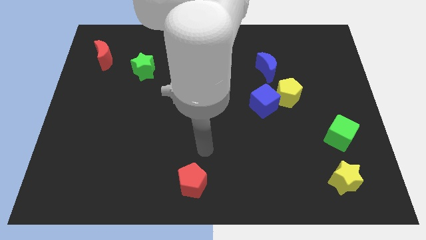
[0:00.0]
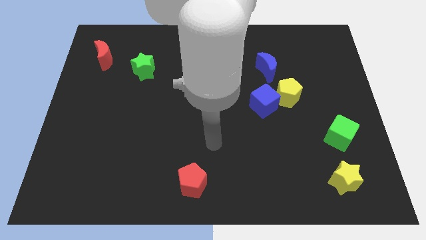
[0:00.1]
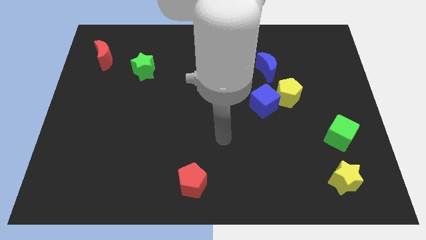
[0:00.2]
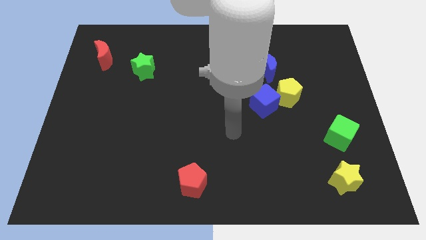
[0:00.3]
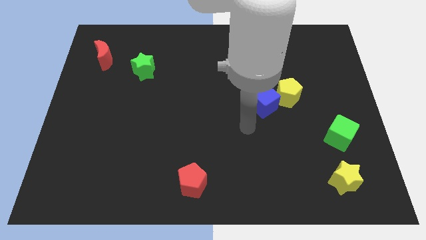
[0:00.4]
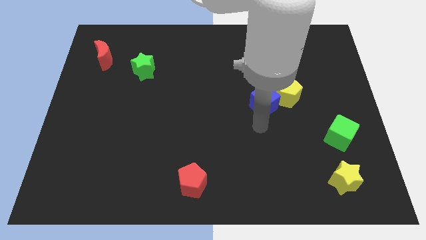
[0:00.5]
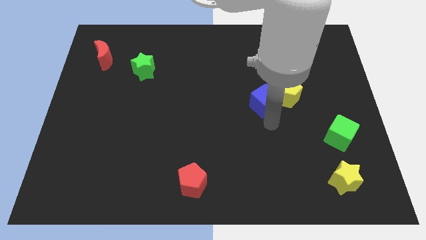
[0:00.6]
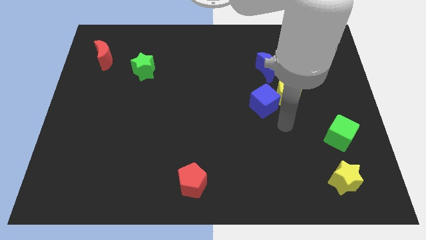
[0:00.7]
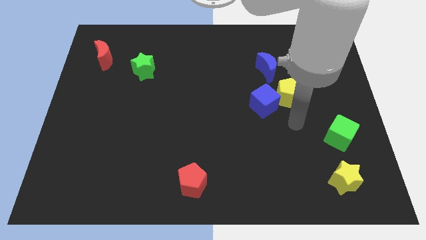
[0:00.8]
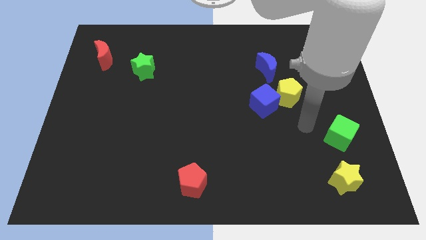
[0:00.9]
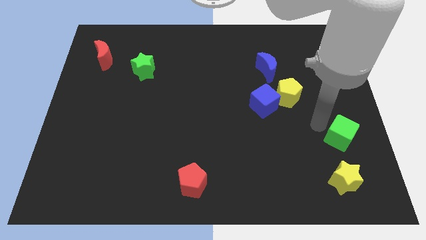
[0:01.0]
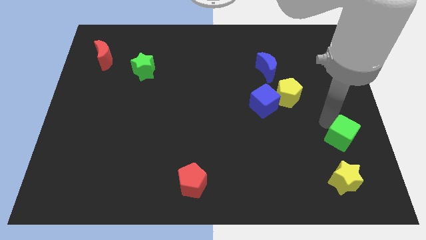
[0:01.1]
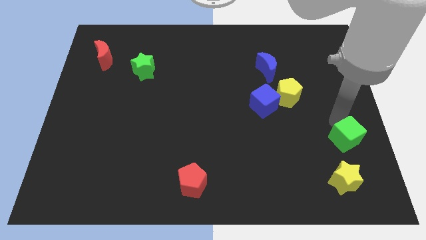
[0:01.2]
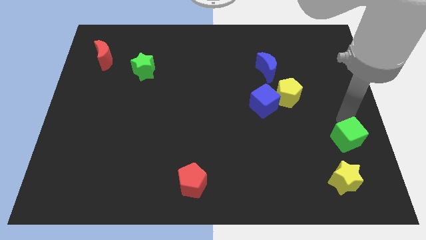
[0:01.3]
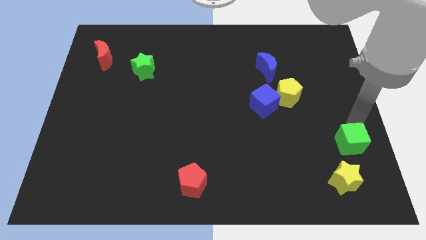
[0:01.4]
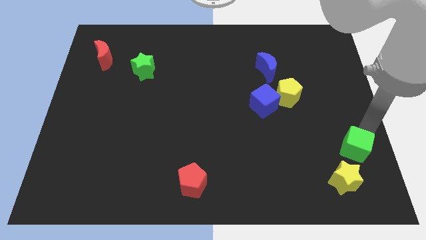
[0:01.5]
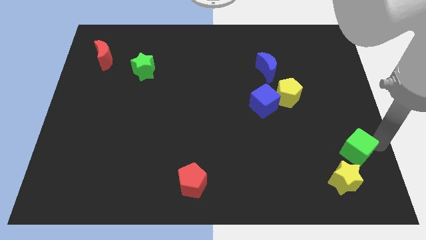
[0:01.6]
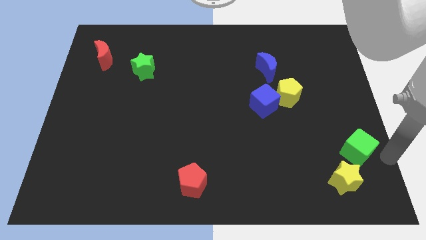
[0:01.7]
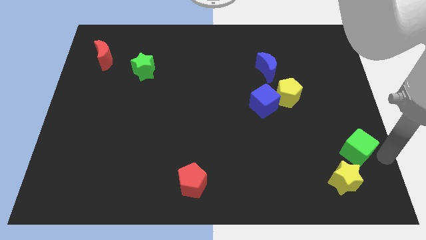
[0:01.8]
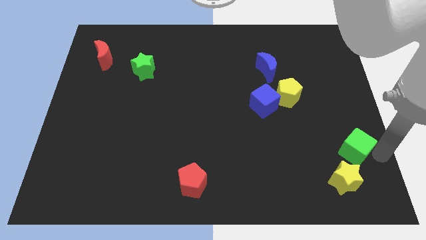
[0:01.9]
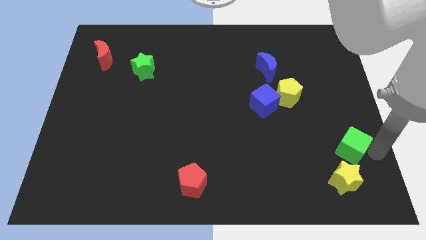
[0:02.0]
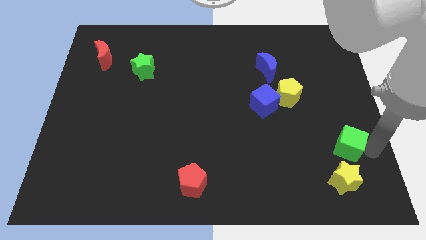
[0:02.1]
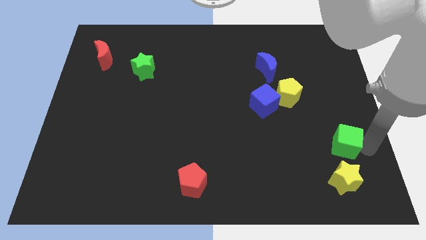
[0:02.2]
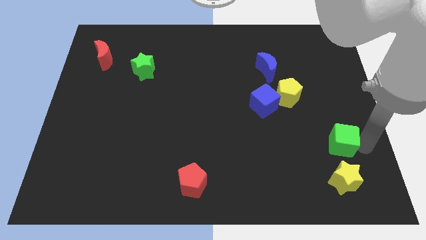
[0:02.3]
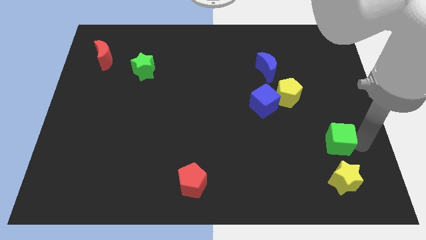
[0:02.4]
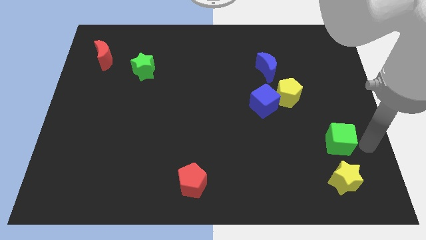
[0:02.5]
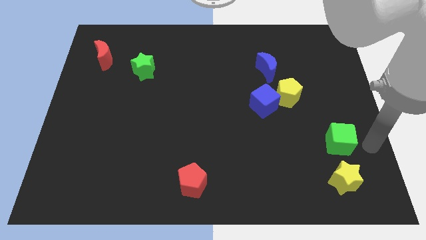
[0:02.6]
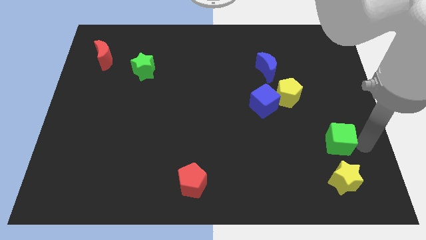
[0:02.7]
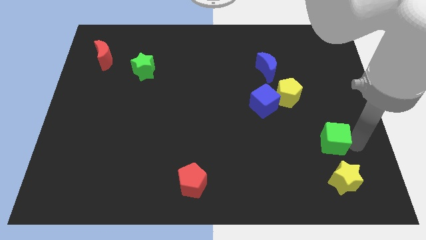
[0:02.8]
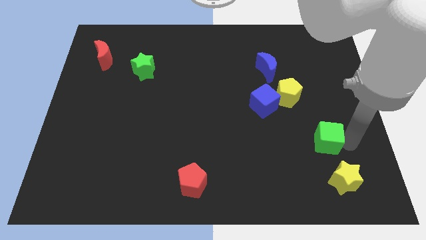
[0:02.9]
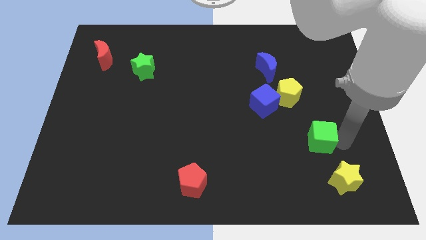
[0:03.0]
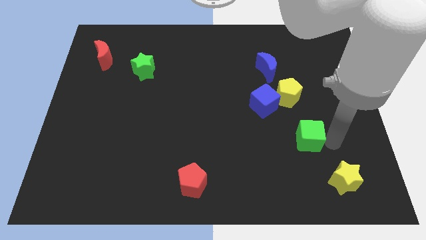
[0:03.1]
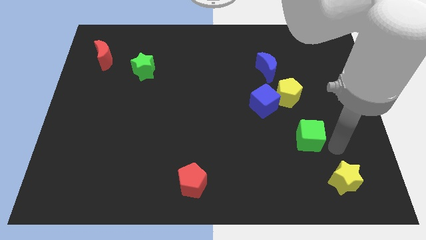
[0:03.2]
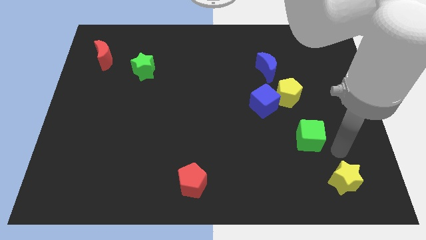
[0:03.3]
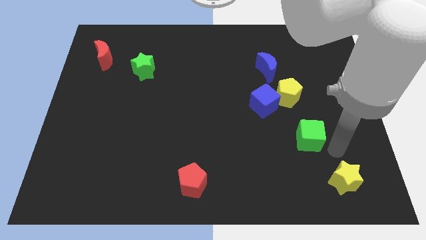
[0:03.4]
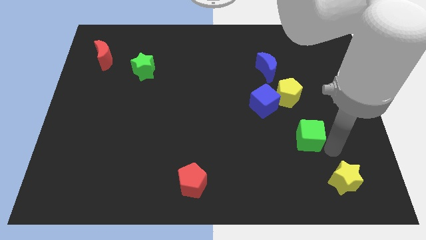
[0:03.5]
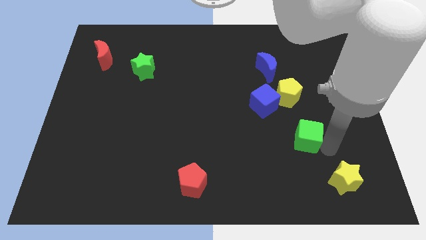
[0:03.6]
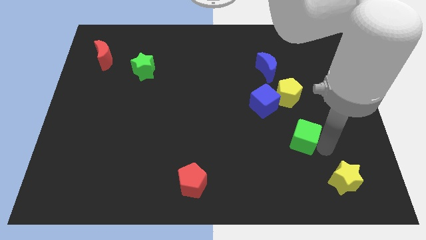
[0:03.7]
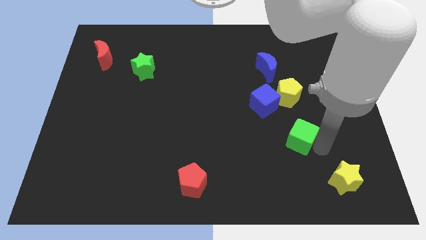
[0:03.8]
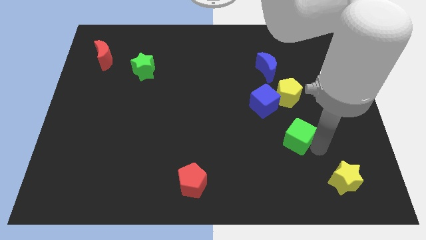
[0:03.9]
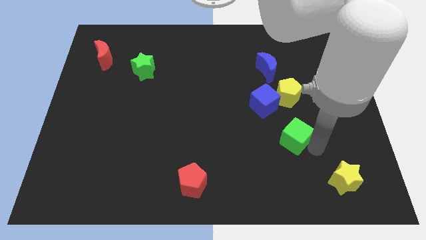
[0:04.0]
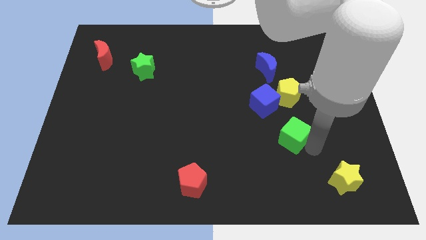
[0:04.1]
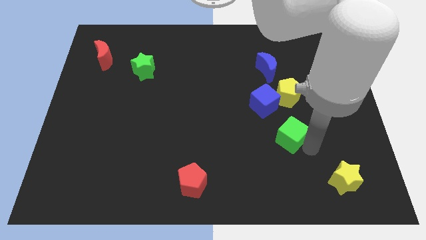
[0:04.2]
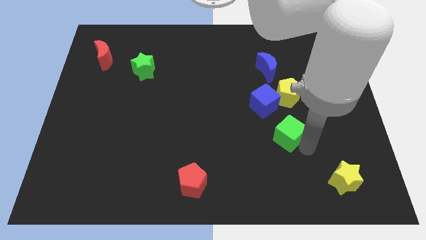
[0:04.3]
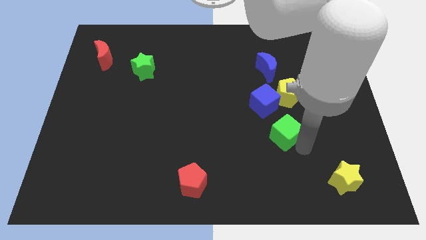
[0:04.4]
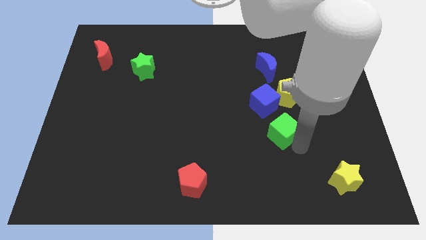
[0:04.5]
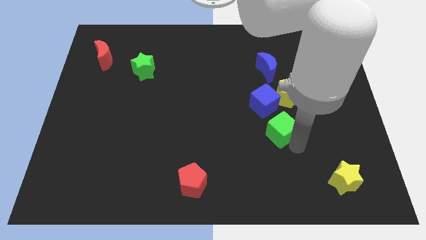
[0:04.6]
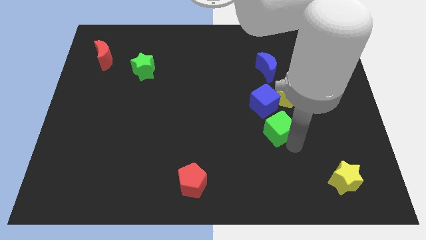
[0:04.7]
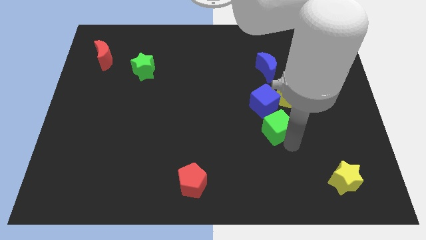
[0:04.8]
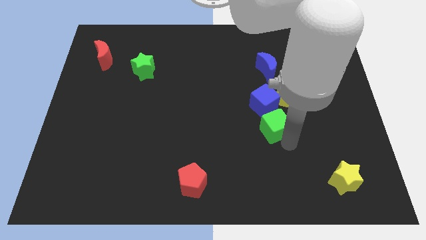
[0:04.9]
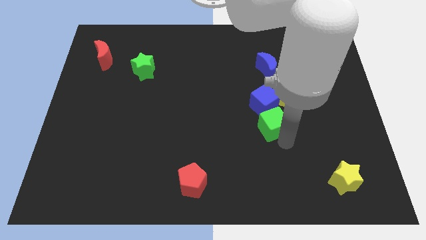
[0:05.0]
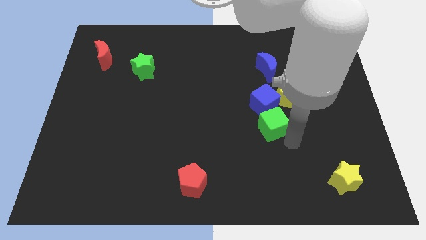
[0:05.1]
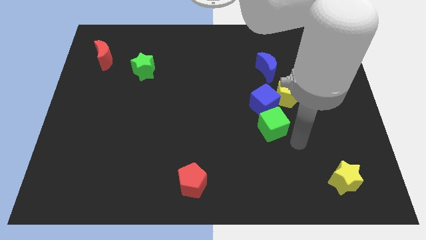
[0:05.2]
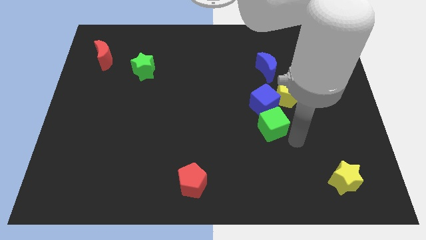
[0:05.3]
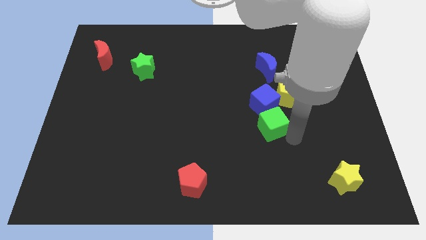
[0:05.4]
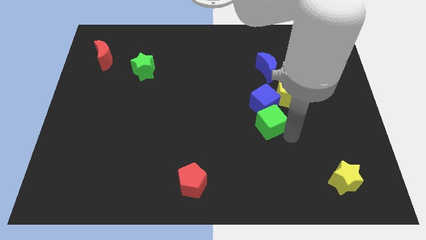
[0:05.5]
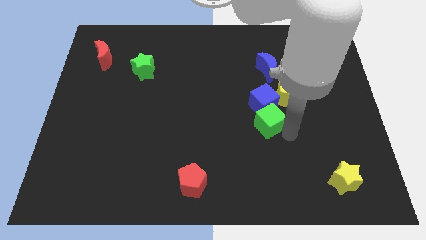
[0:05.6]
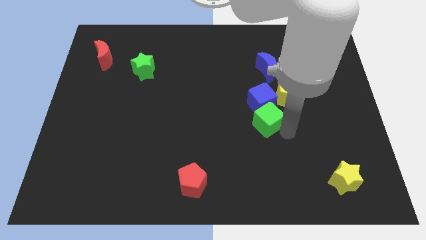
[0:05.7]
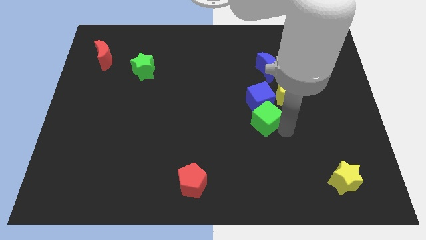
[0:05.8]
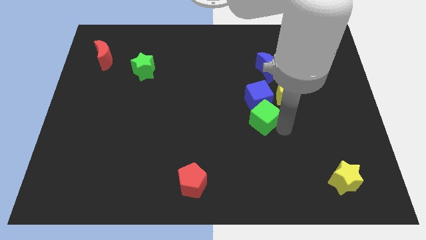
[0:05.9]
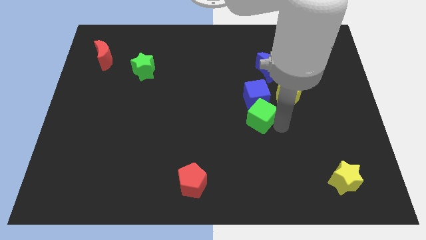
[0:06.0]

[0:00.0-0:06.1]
move the green cube to the center
